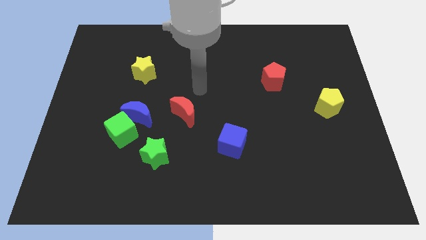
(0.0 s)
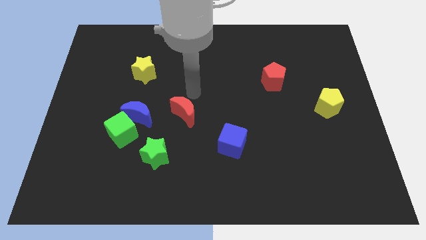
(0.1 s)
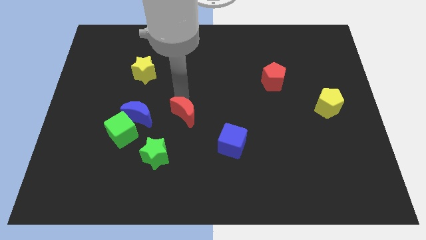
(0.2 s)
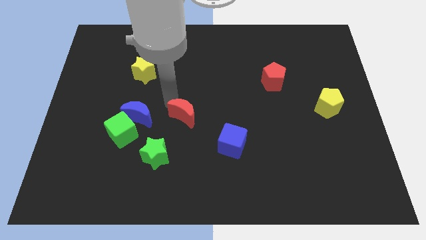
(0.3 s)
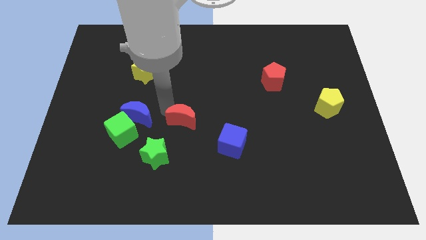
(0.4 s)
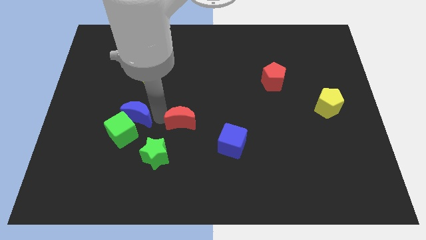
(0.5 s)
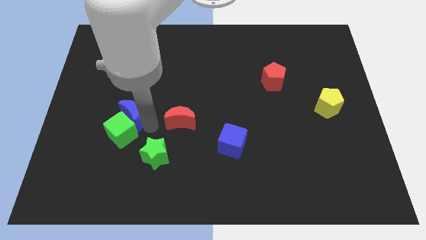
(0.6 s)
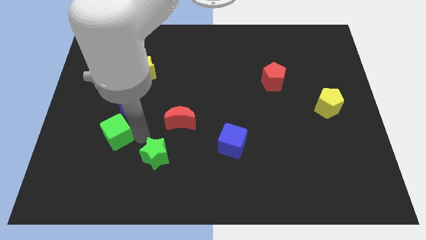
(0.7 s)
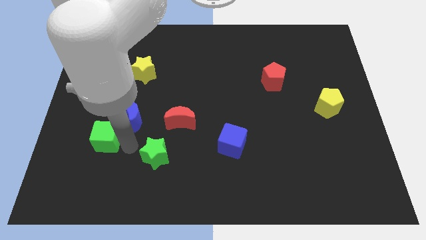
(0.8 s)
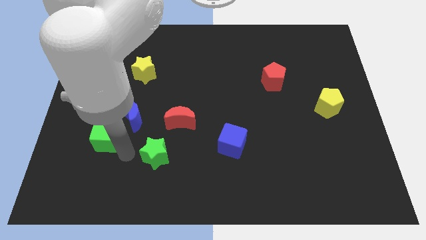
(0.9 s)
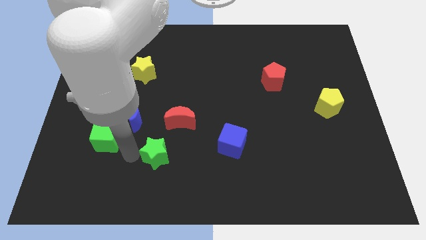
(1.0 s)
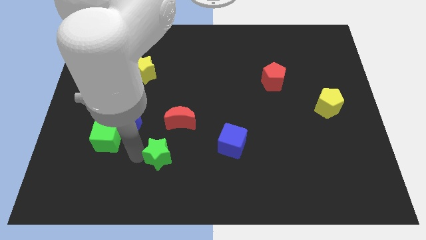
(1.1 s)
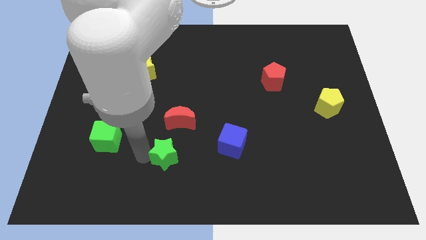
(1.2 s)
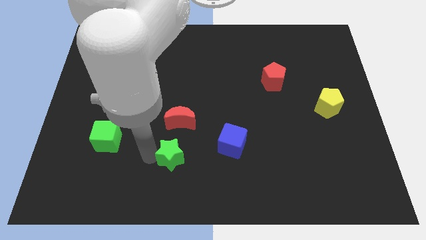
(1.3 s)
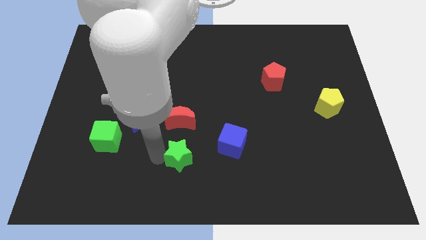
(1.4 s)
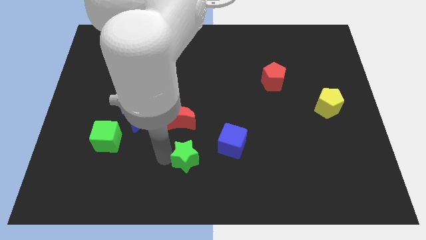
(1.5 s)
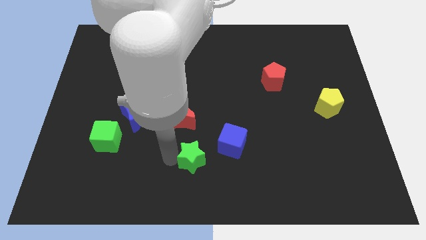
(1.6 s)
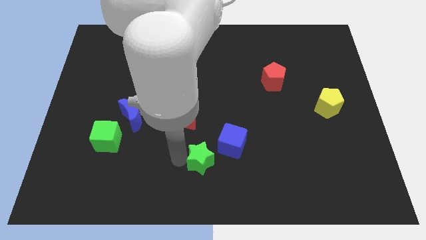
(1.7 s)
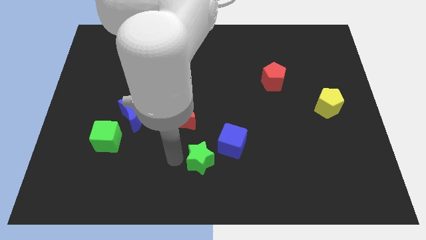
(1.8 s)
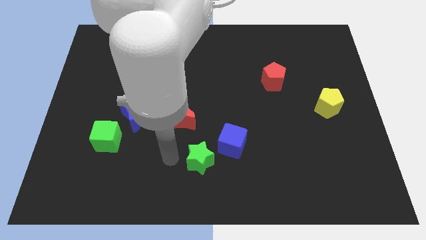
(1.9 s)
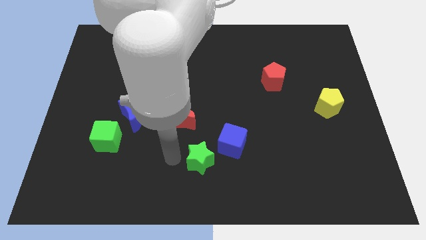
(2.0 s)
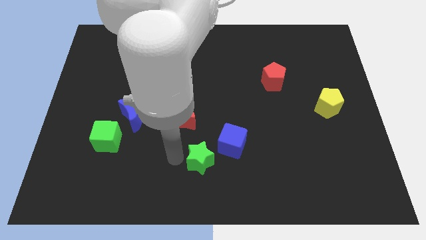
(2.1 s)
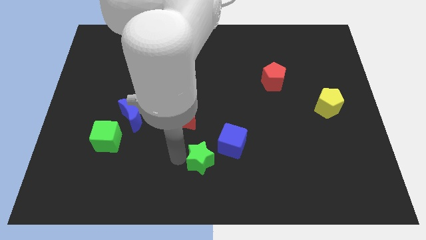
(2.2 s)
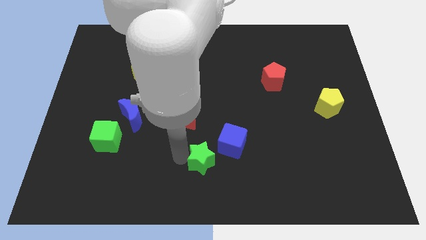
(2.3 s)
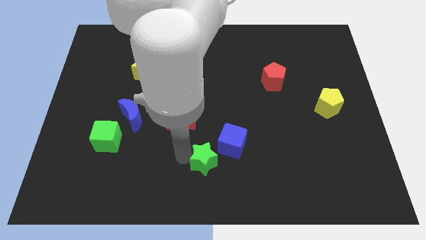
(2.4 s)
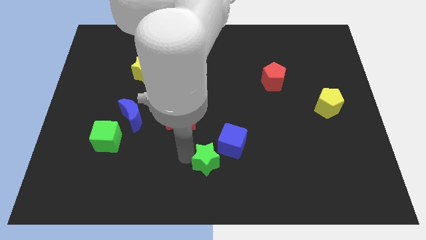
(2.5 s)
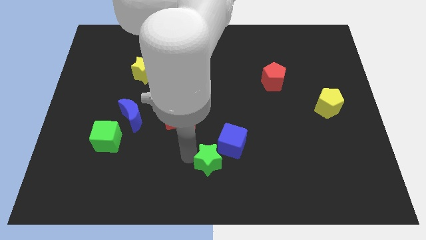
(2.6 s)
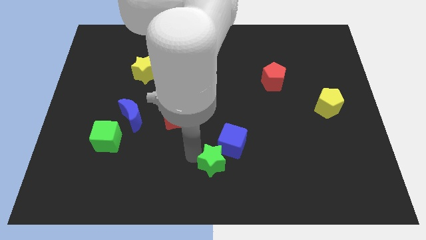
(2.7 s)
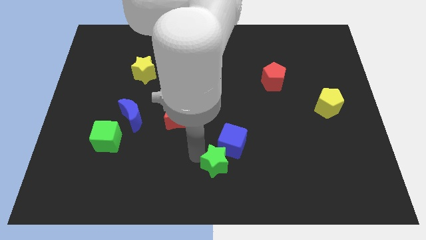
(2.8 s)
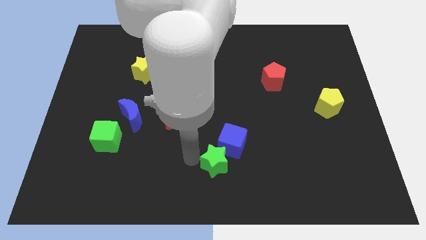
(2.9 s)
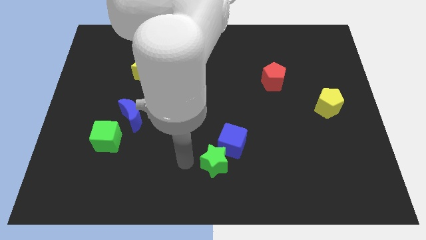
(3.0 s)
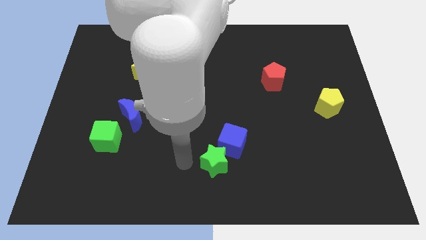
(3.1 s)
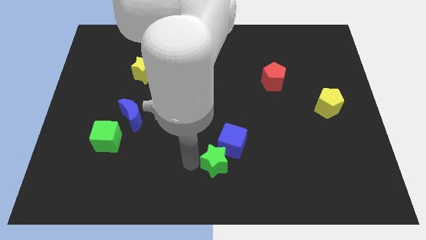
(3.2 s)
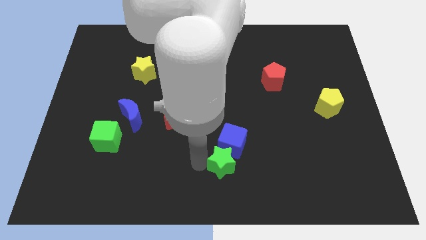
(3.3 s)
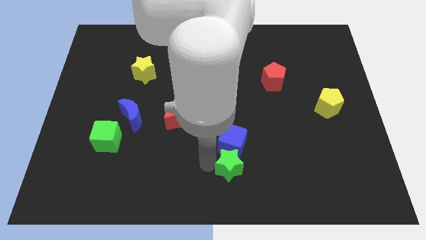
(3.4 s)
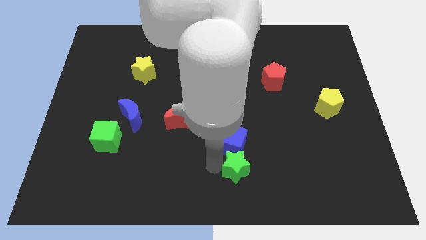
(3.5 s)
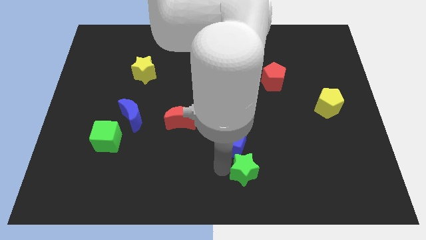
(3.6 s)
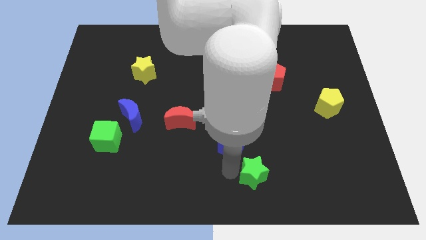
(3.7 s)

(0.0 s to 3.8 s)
push the green star to the right

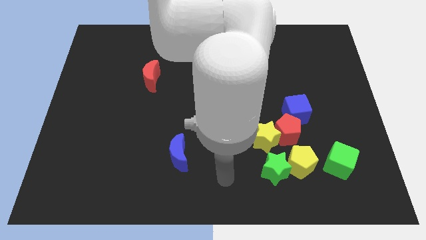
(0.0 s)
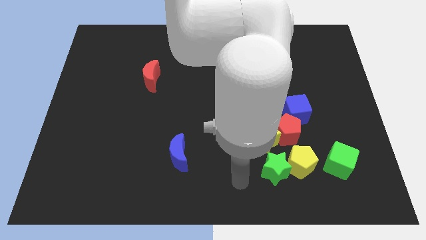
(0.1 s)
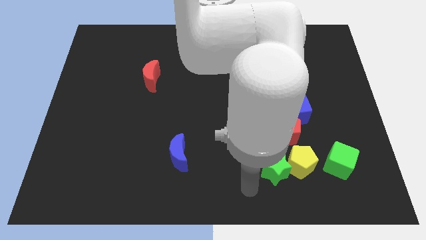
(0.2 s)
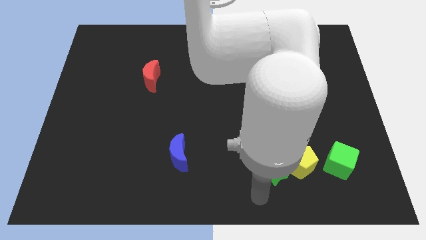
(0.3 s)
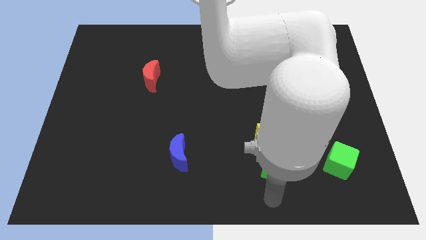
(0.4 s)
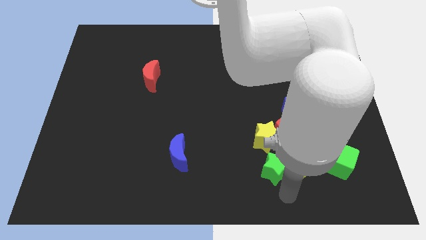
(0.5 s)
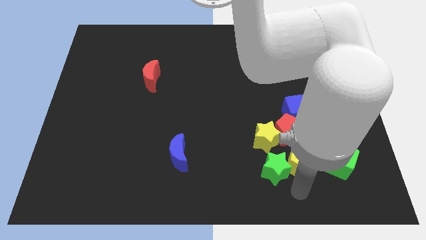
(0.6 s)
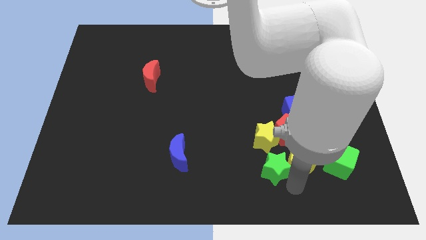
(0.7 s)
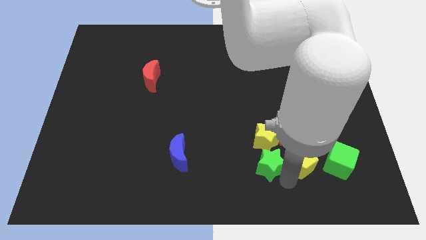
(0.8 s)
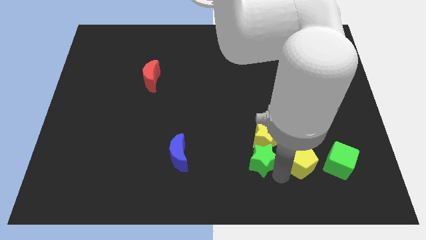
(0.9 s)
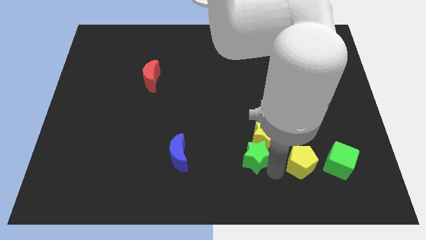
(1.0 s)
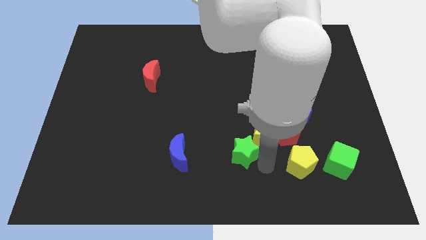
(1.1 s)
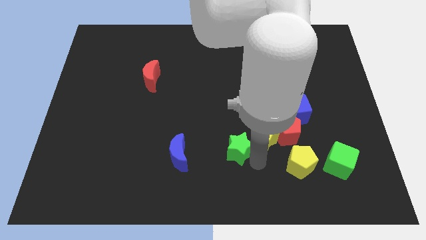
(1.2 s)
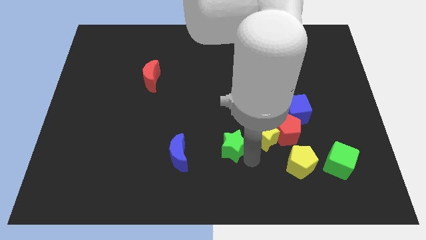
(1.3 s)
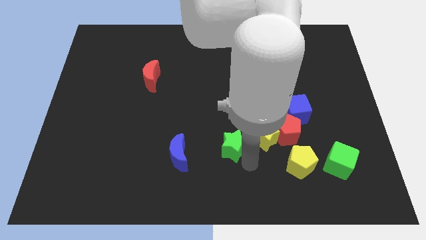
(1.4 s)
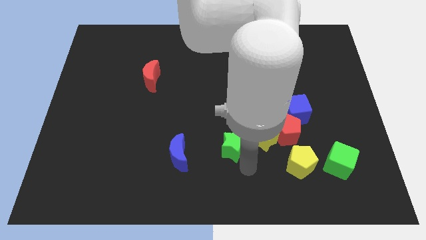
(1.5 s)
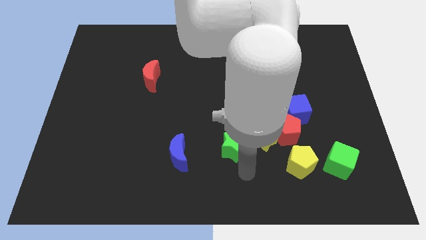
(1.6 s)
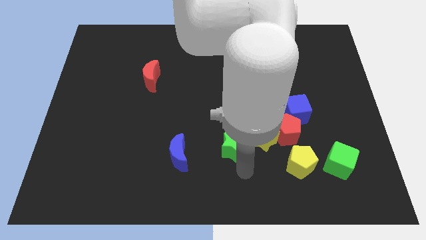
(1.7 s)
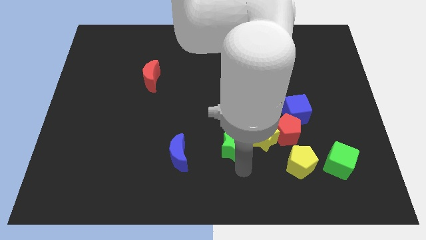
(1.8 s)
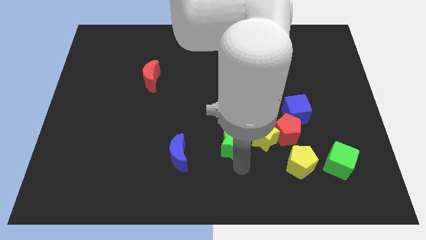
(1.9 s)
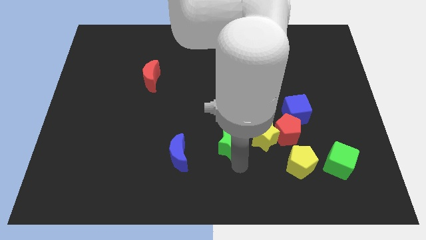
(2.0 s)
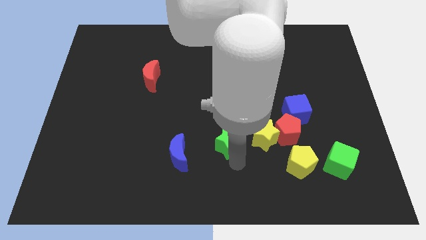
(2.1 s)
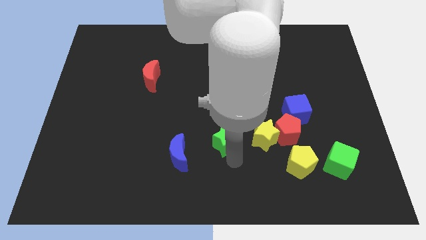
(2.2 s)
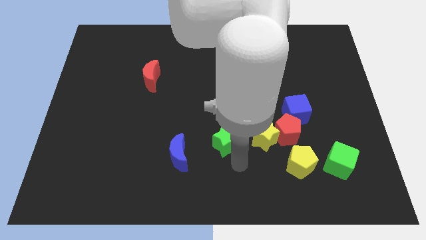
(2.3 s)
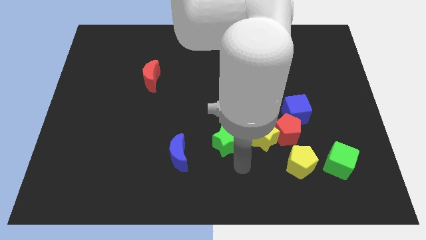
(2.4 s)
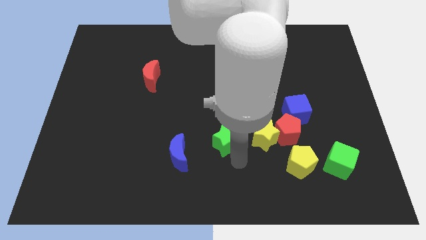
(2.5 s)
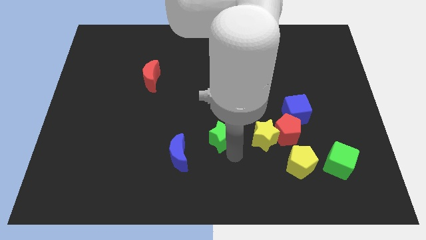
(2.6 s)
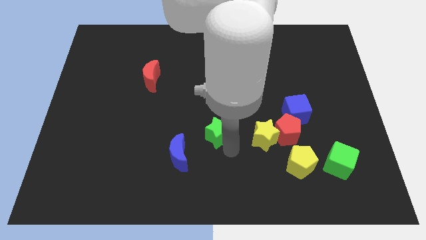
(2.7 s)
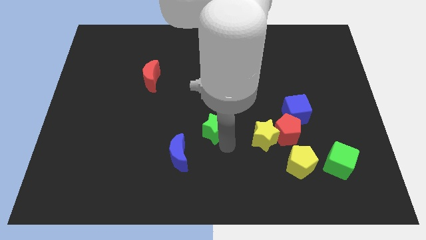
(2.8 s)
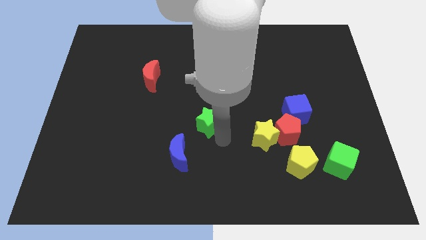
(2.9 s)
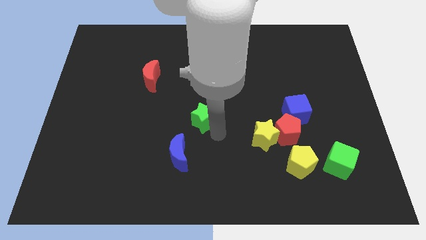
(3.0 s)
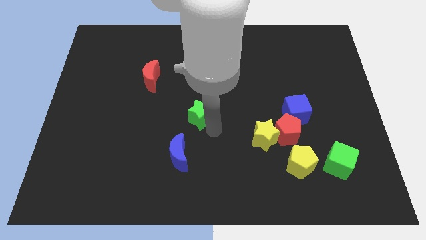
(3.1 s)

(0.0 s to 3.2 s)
move the green star upwards and left diagonally

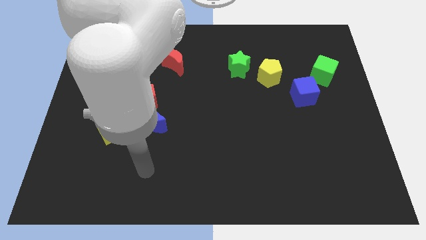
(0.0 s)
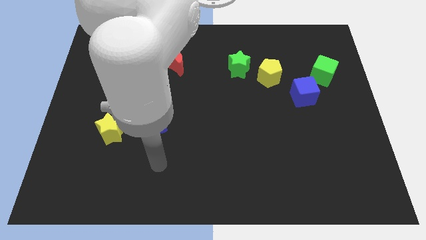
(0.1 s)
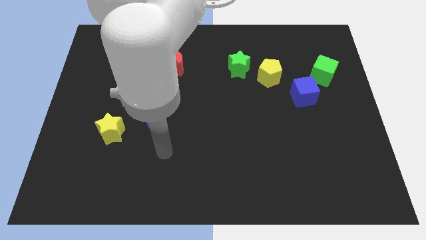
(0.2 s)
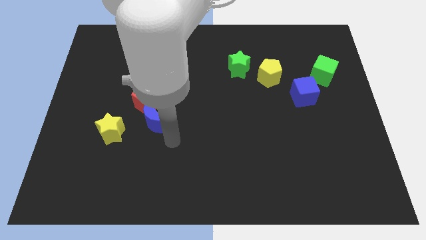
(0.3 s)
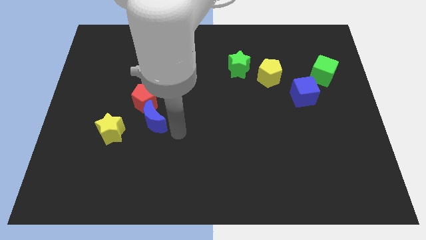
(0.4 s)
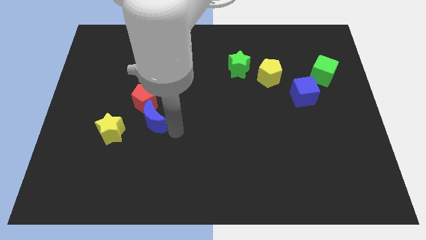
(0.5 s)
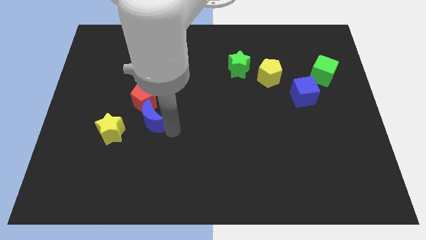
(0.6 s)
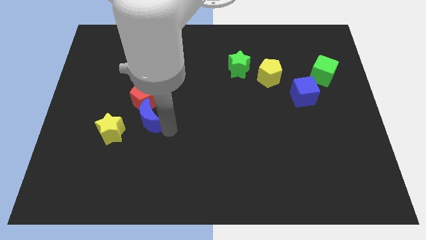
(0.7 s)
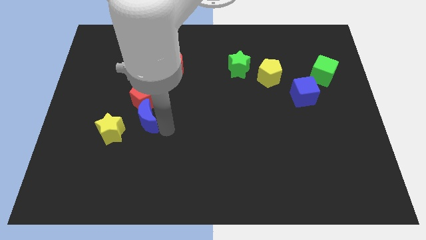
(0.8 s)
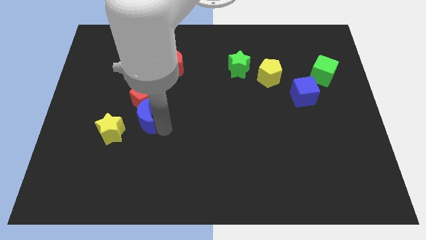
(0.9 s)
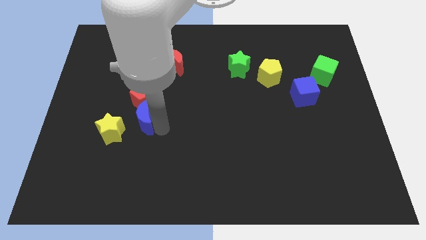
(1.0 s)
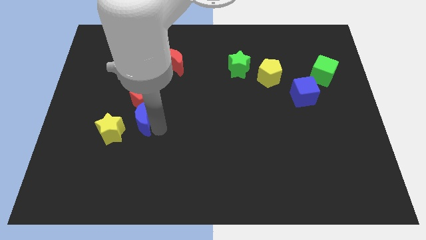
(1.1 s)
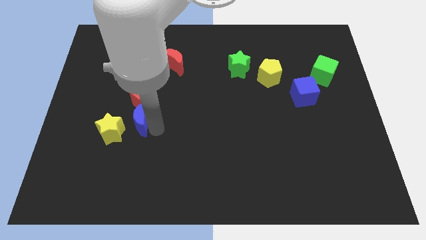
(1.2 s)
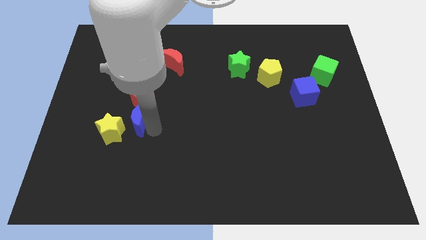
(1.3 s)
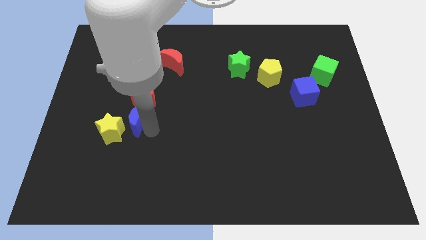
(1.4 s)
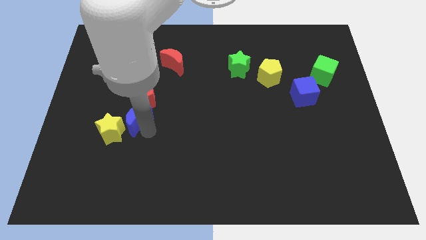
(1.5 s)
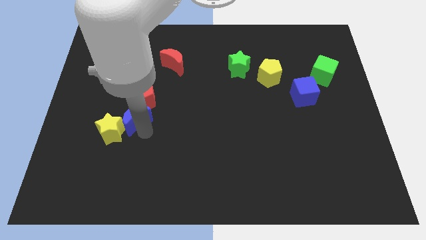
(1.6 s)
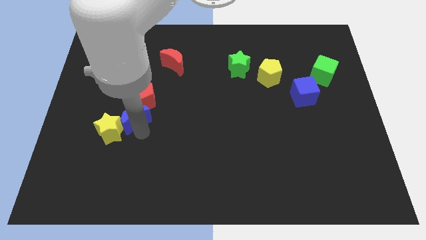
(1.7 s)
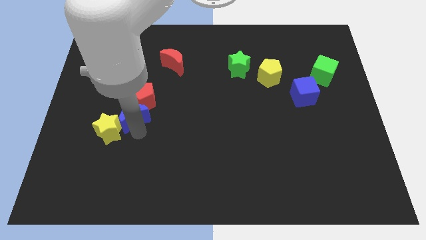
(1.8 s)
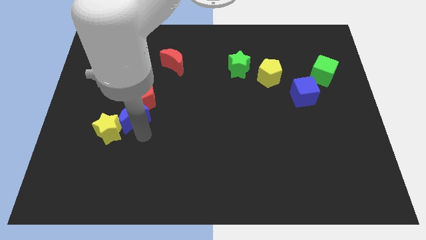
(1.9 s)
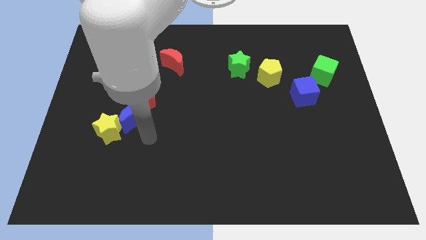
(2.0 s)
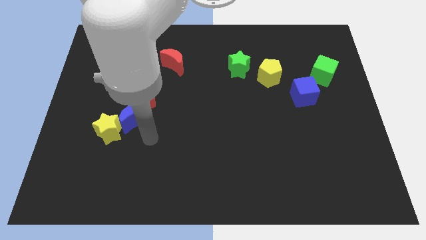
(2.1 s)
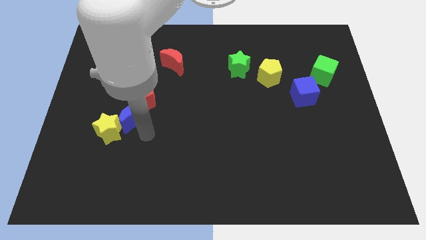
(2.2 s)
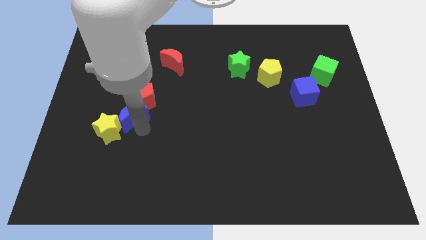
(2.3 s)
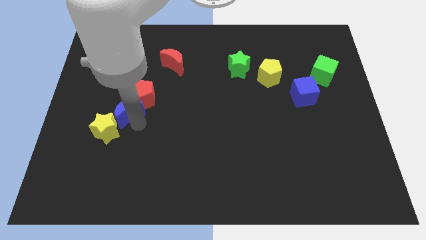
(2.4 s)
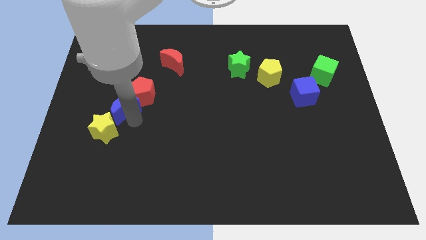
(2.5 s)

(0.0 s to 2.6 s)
slightly push the blue moon upwards and then to the left
